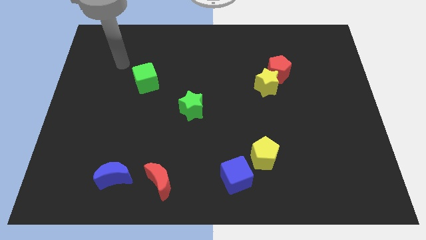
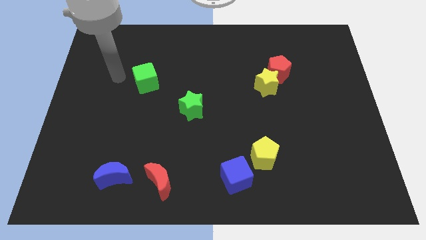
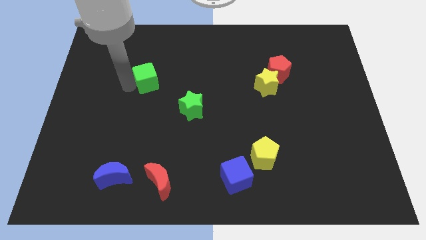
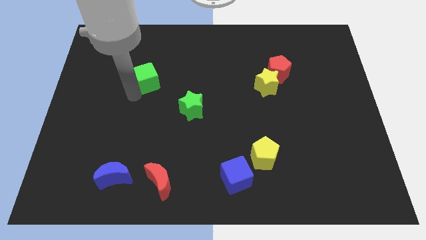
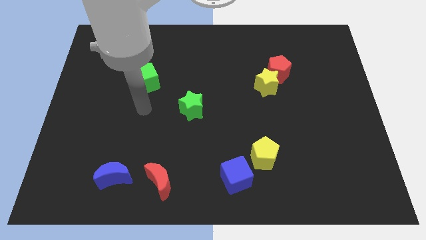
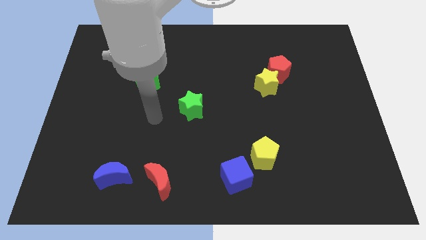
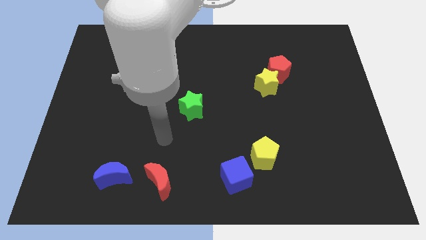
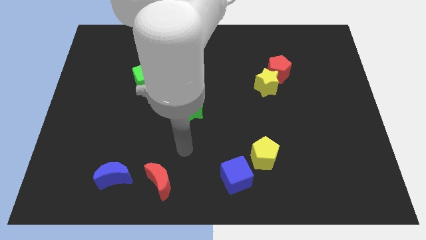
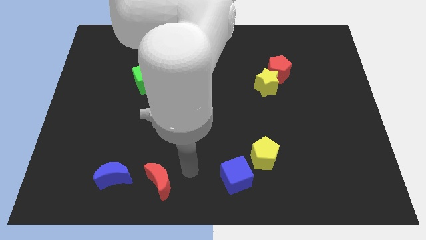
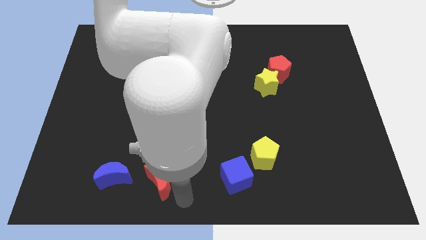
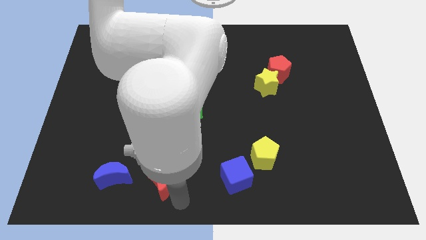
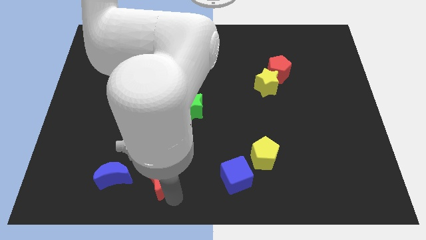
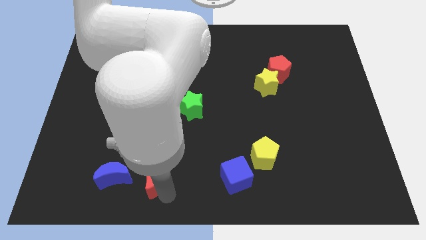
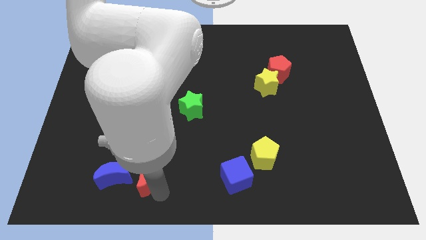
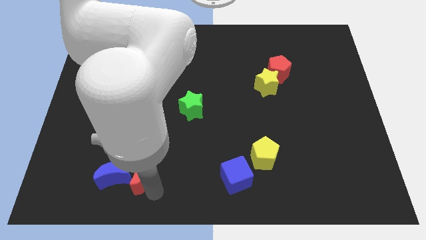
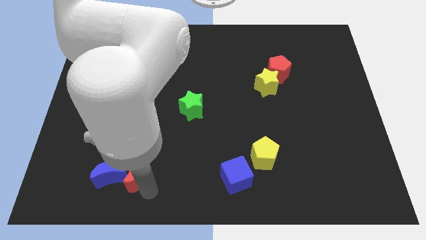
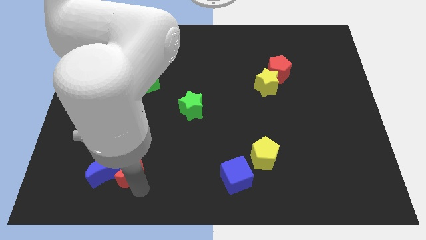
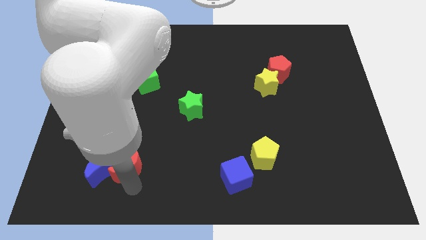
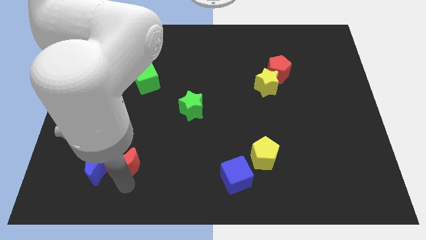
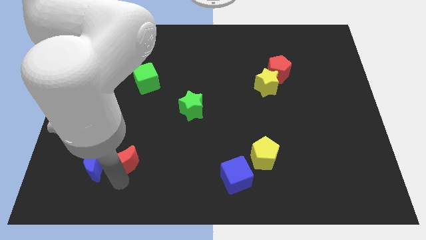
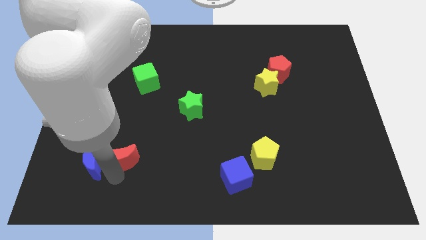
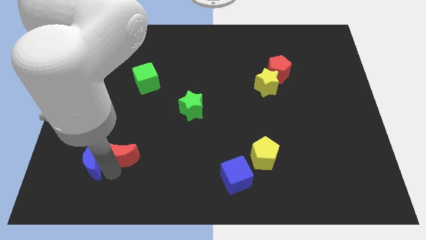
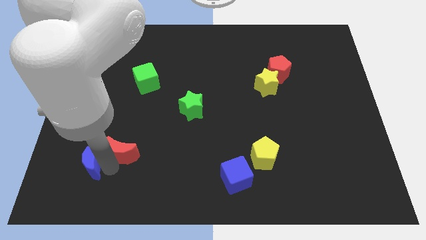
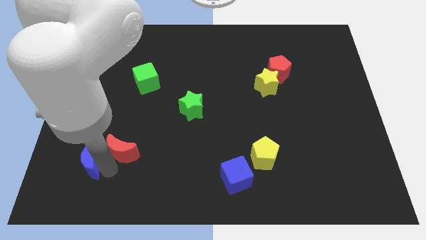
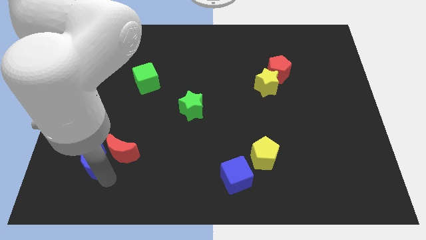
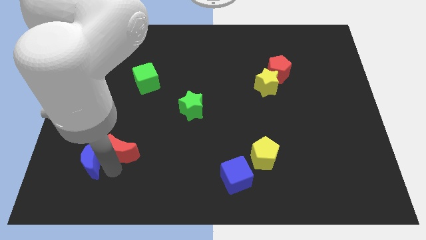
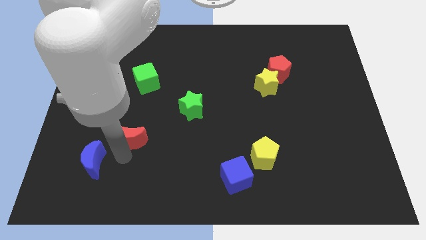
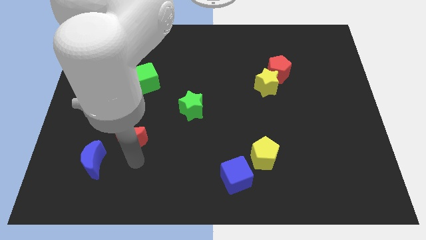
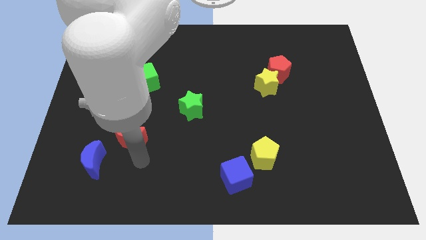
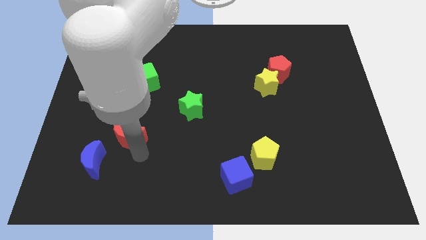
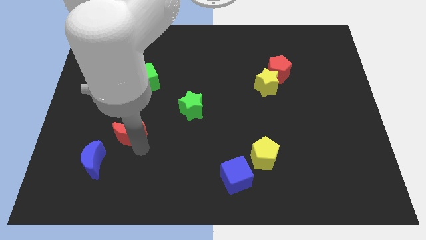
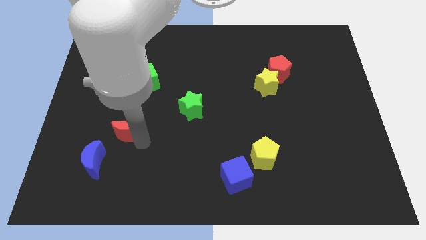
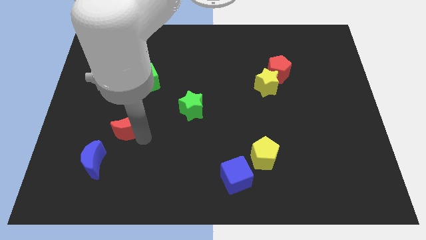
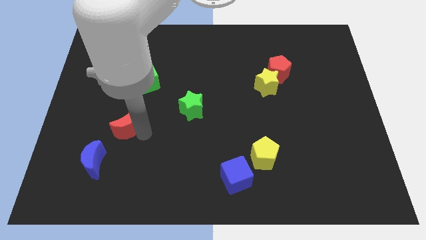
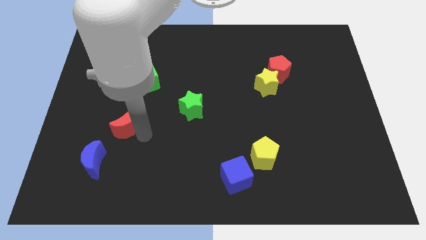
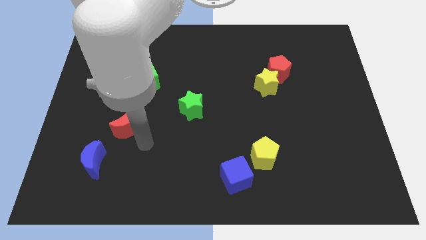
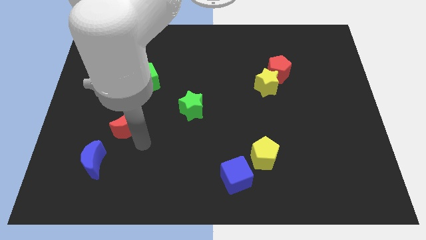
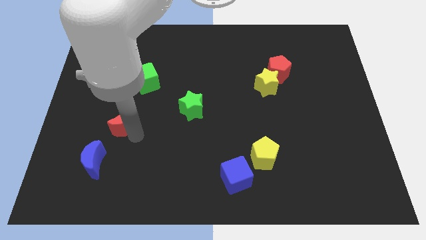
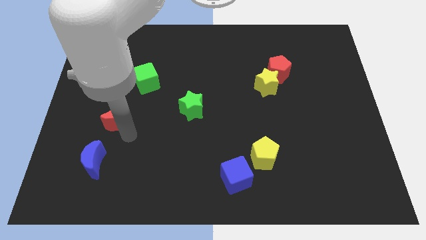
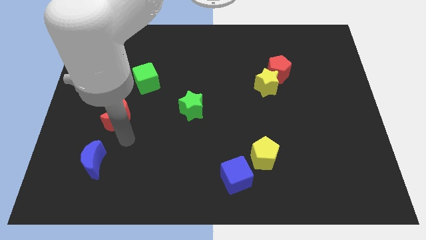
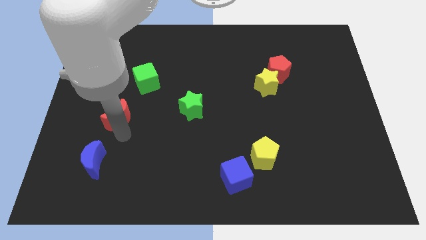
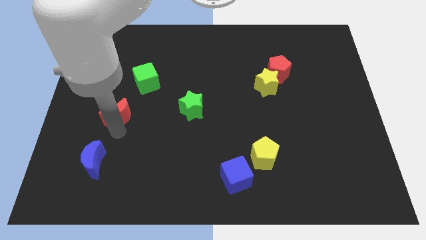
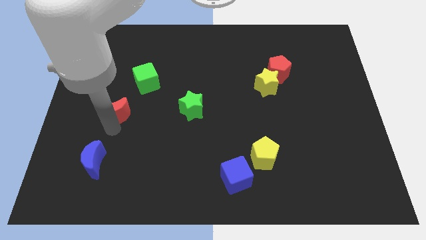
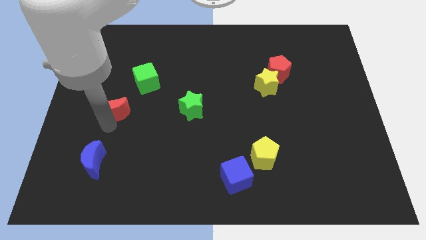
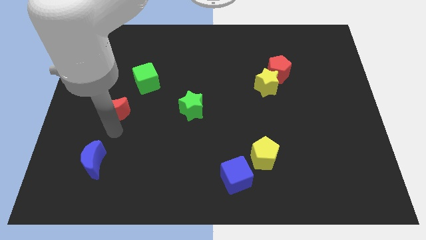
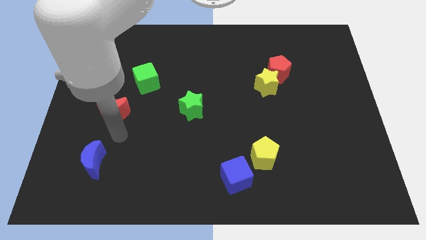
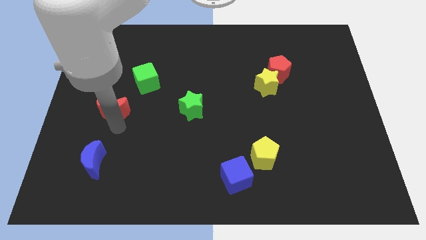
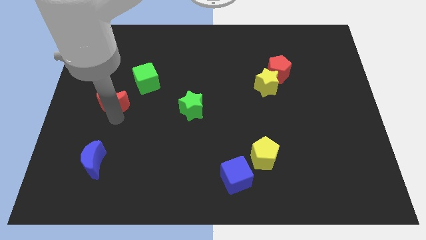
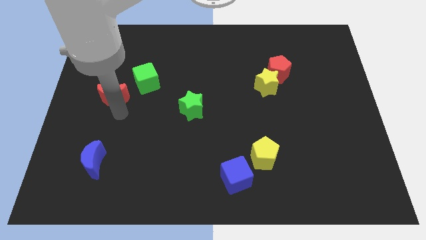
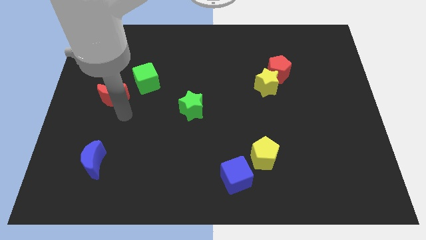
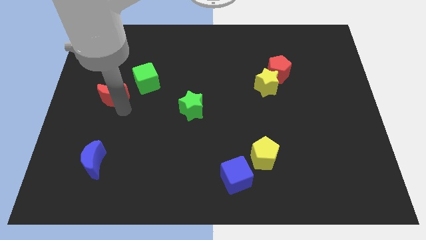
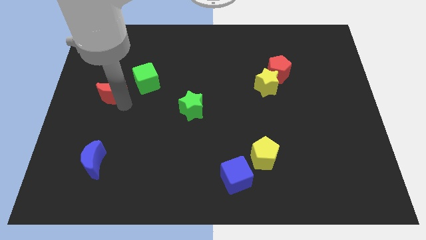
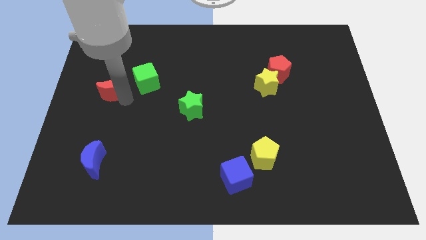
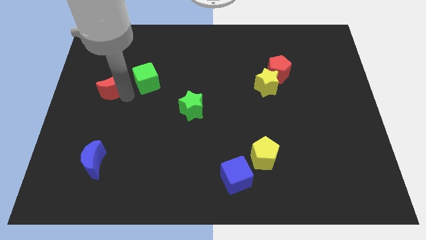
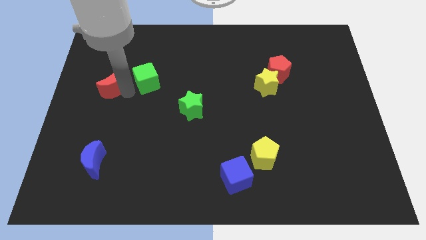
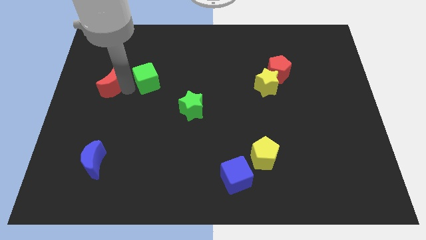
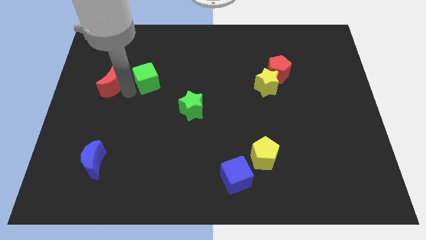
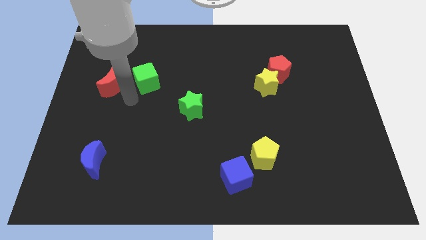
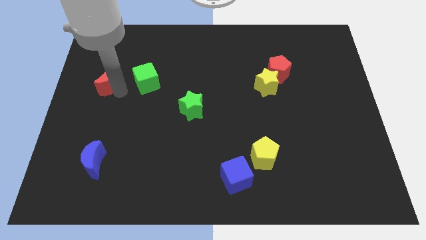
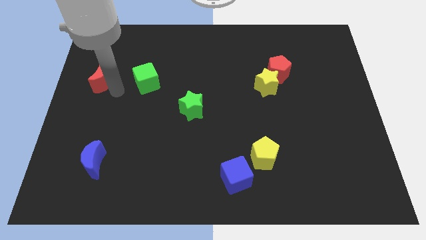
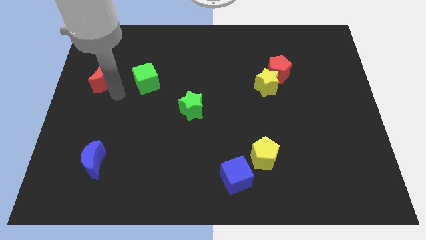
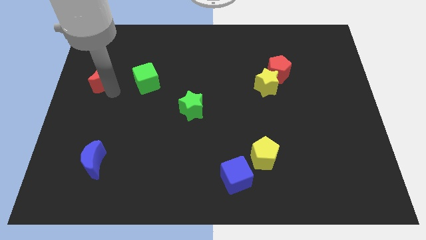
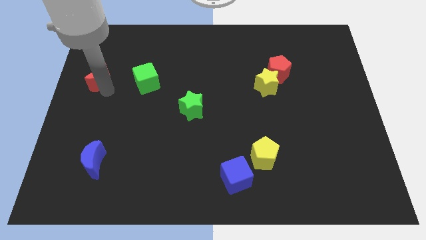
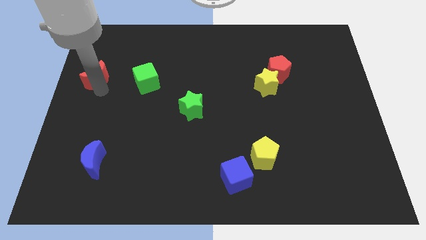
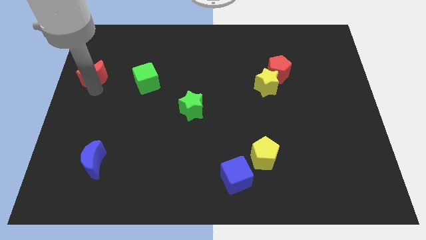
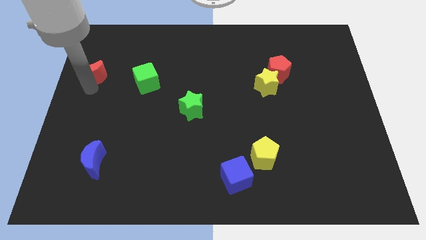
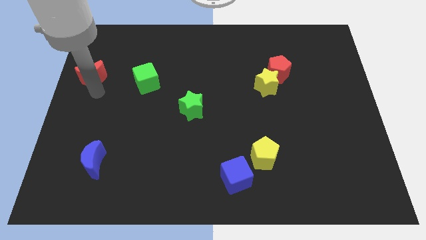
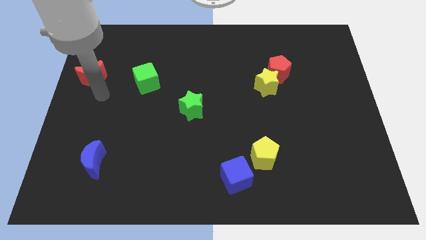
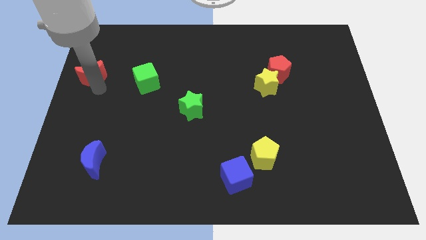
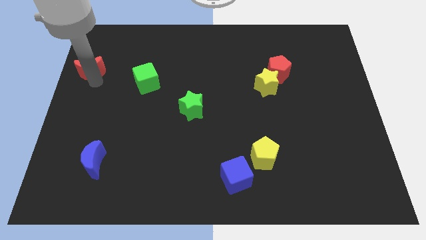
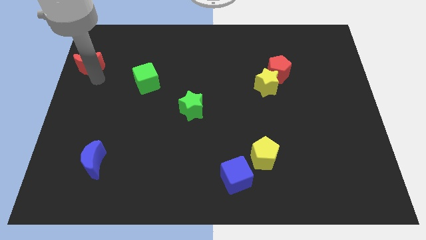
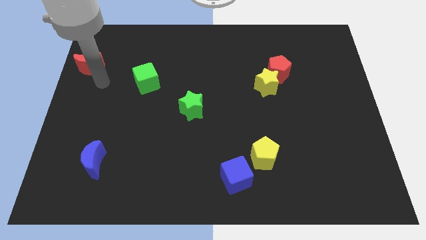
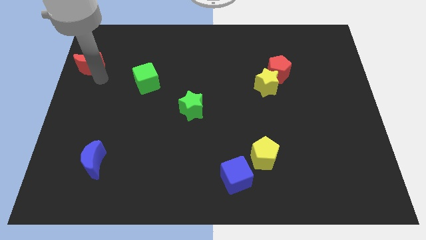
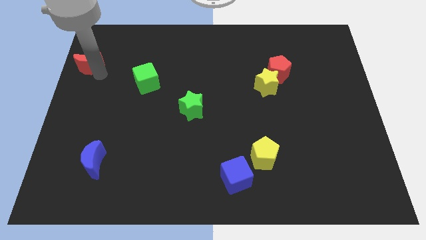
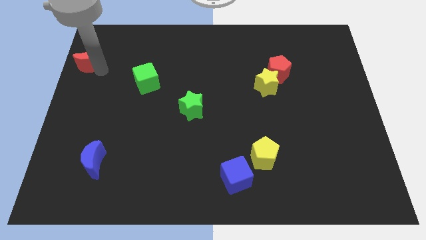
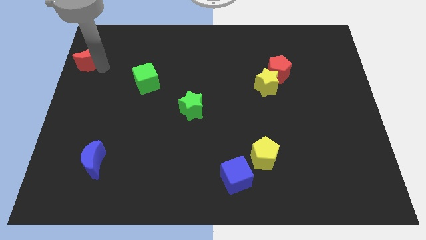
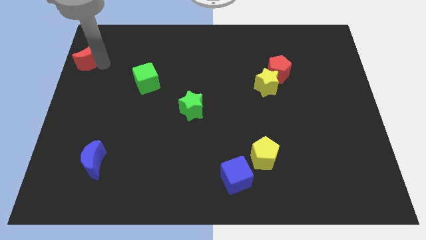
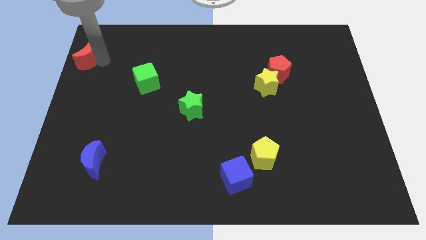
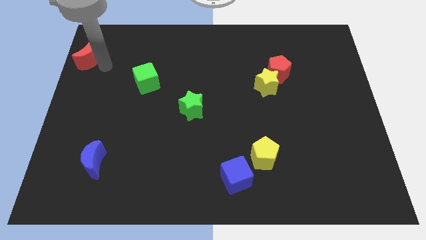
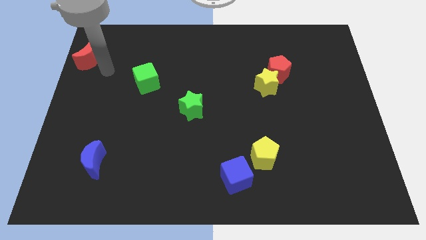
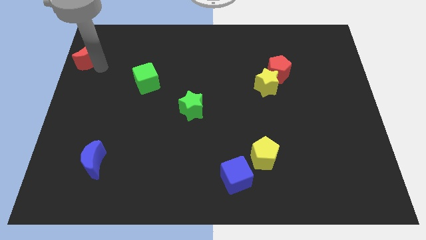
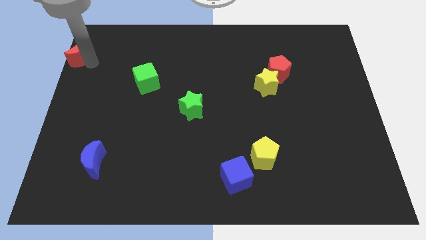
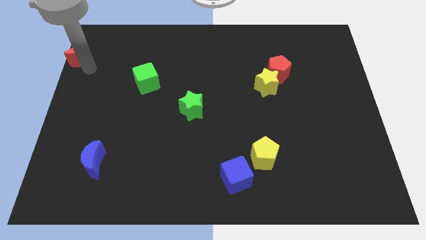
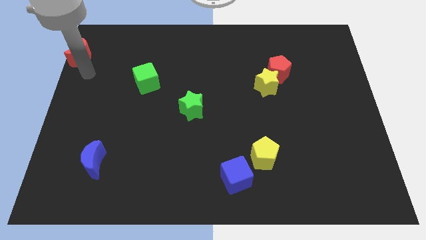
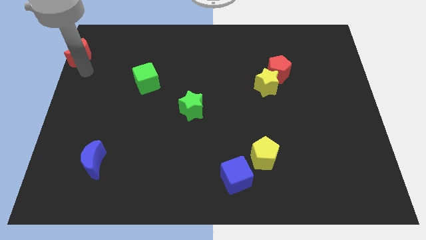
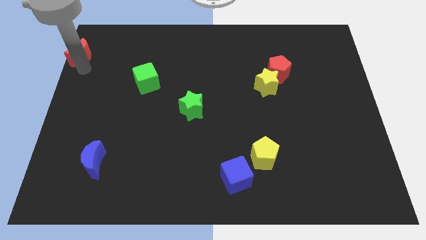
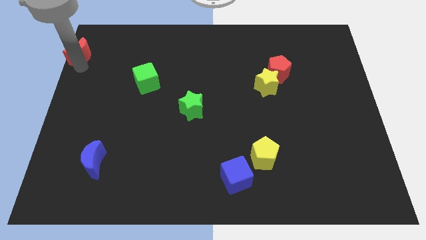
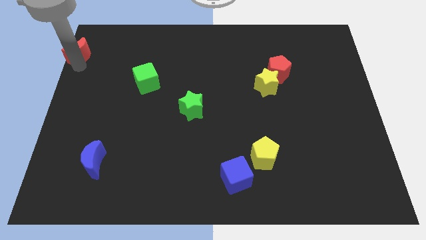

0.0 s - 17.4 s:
slide the red moon to the top left of the board
